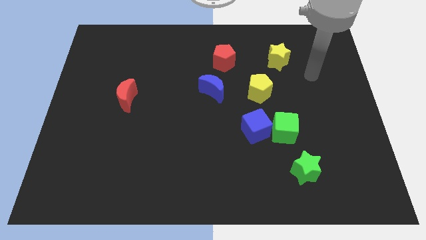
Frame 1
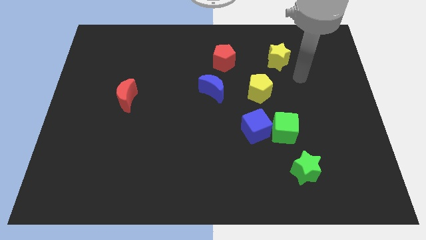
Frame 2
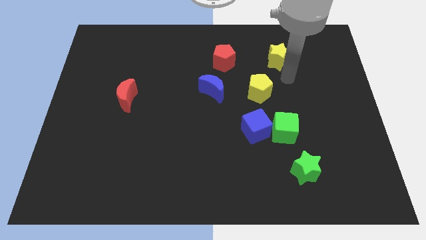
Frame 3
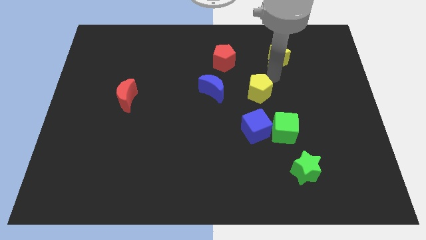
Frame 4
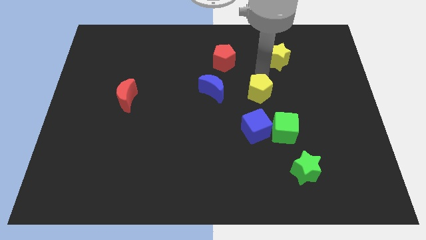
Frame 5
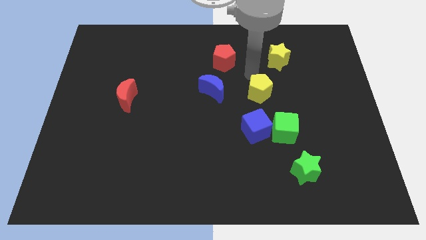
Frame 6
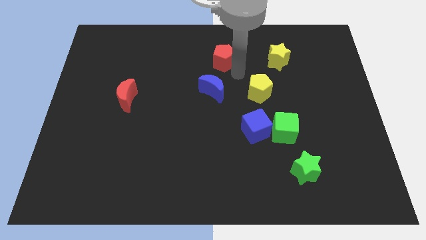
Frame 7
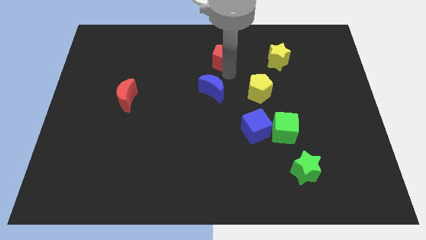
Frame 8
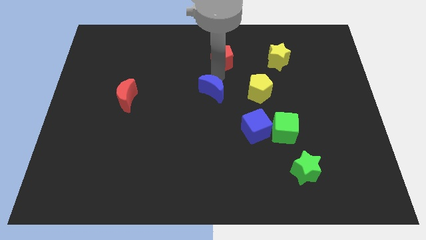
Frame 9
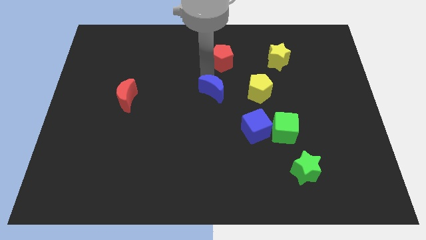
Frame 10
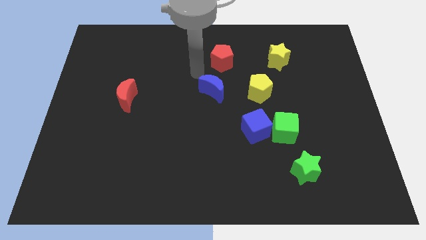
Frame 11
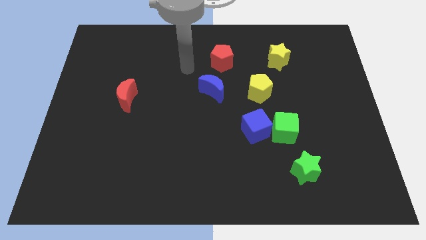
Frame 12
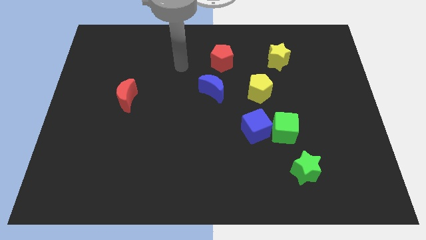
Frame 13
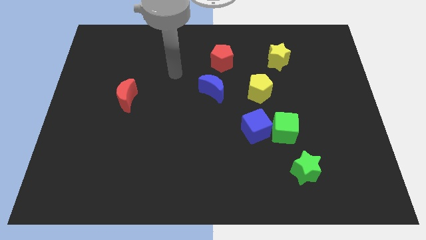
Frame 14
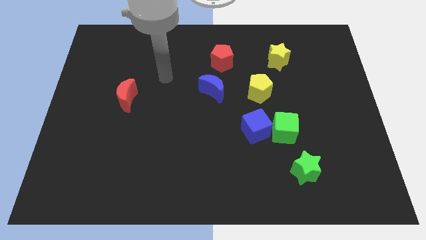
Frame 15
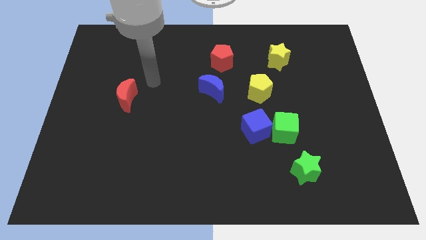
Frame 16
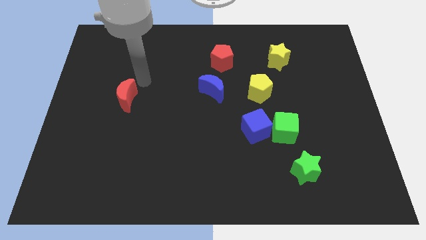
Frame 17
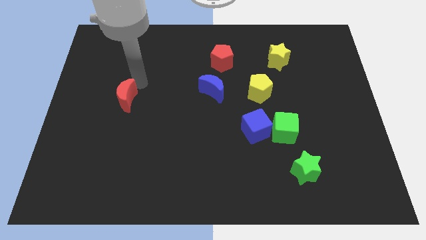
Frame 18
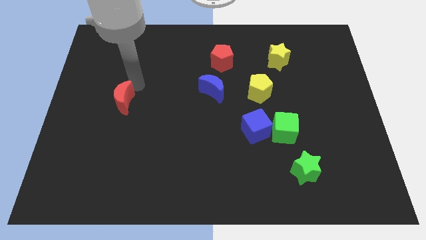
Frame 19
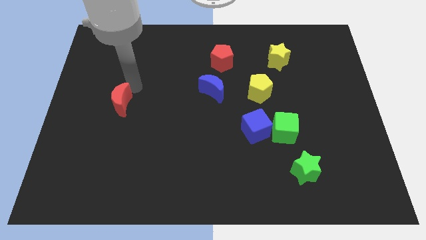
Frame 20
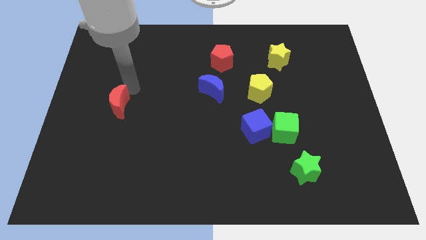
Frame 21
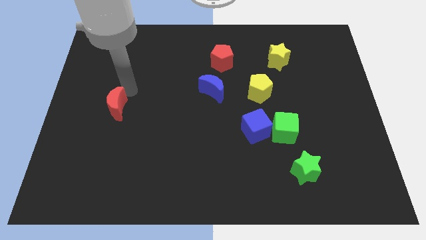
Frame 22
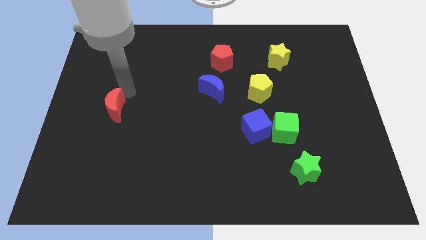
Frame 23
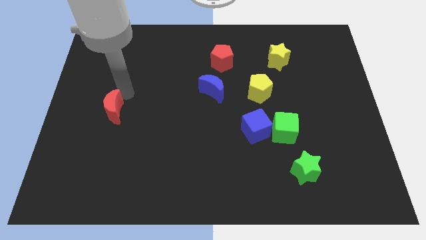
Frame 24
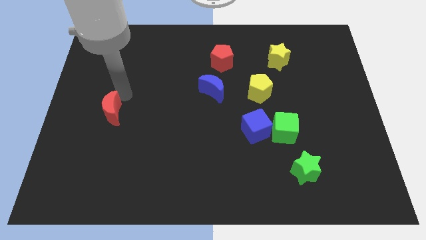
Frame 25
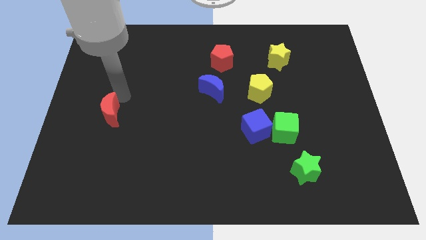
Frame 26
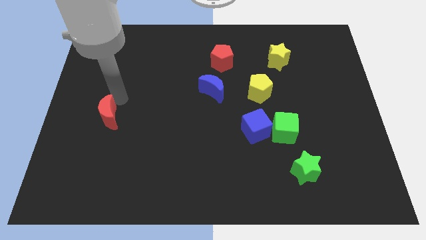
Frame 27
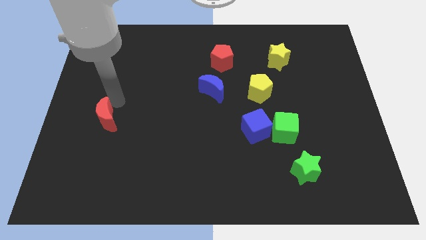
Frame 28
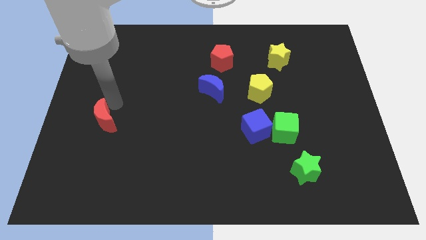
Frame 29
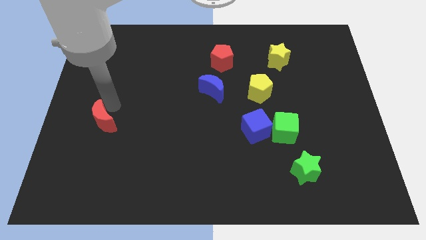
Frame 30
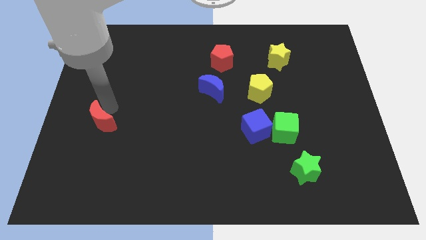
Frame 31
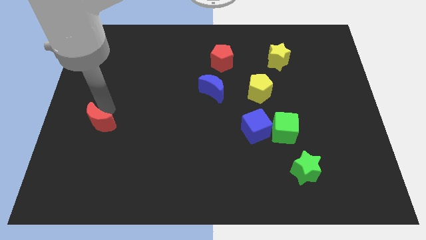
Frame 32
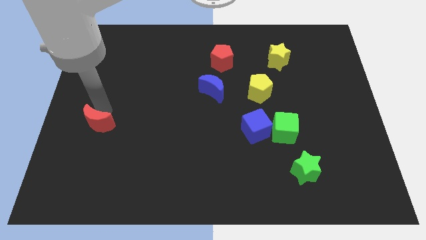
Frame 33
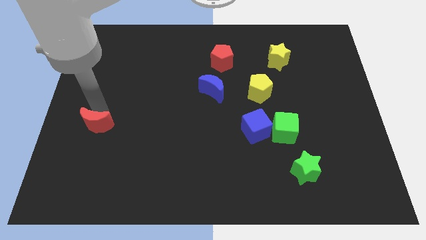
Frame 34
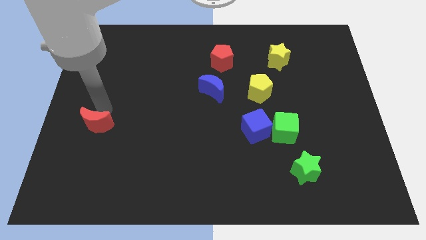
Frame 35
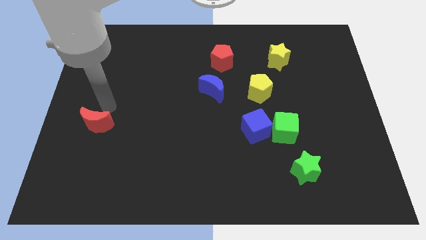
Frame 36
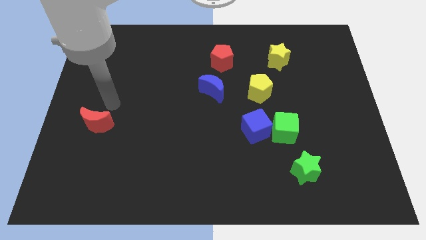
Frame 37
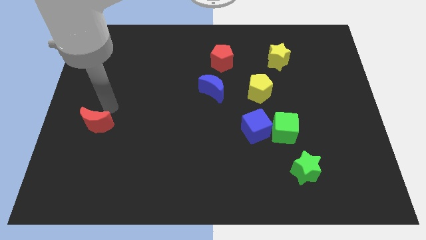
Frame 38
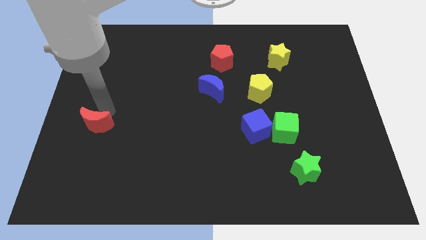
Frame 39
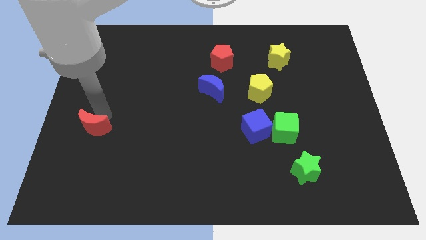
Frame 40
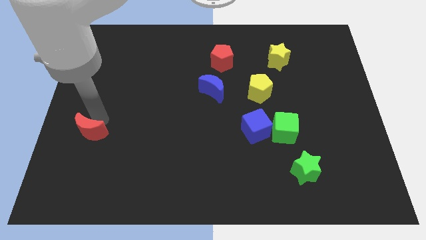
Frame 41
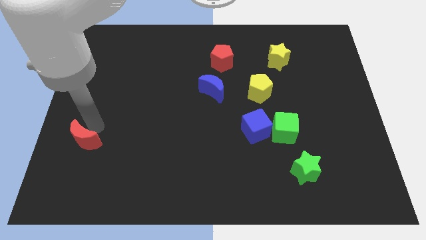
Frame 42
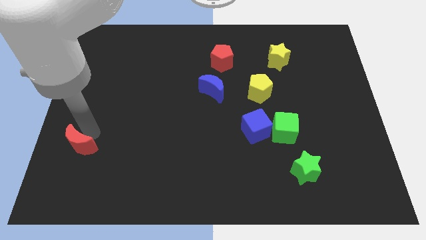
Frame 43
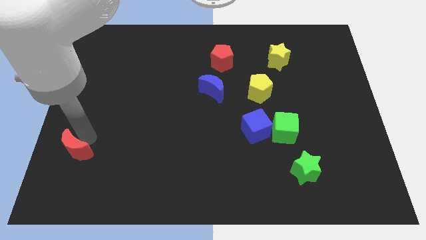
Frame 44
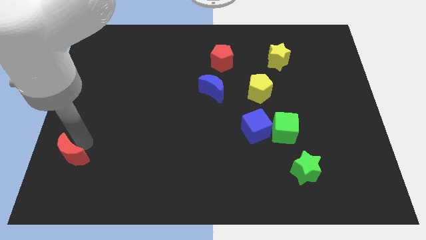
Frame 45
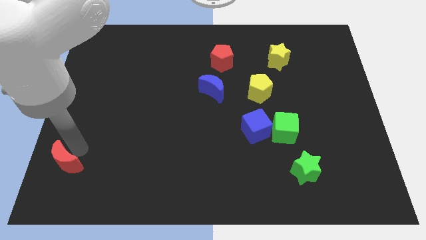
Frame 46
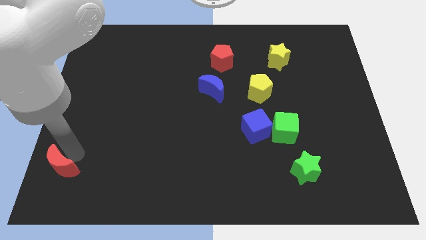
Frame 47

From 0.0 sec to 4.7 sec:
put the red moon to the lower left corner

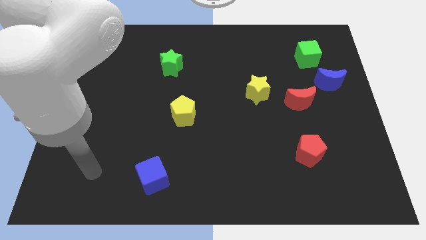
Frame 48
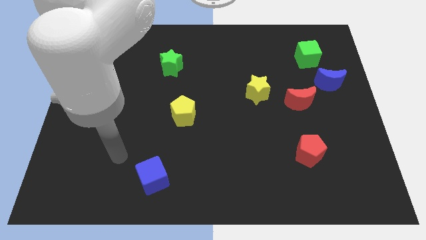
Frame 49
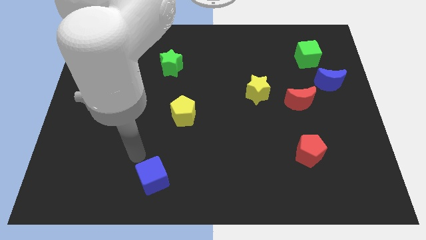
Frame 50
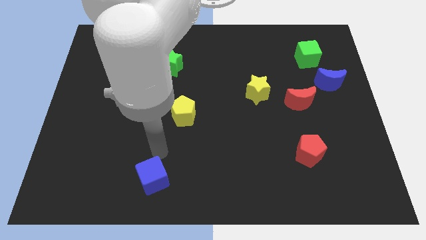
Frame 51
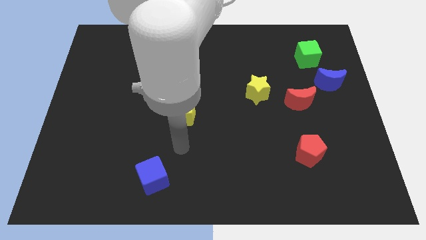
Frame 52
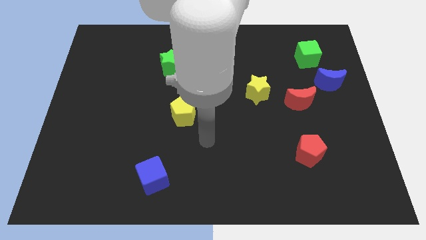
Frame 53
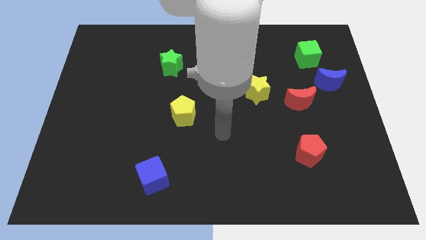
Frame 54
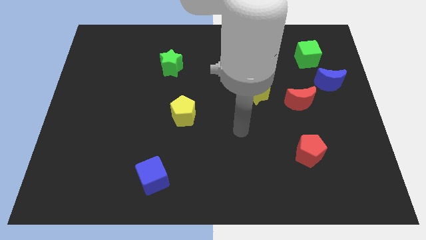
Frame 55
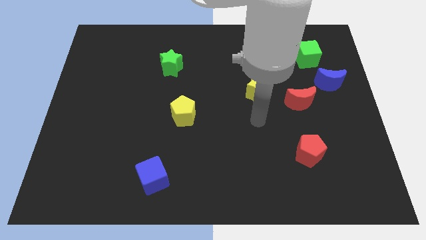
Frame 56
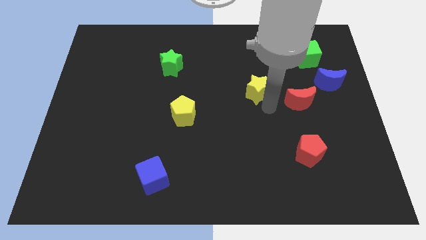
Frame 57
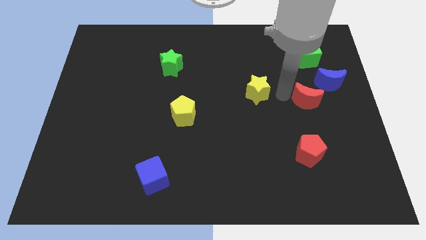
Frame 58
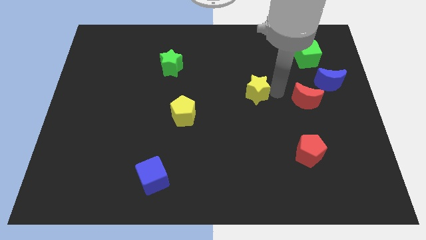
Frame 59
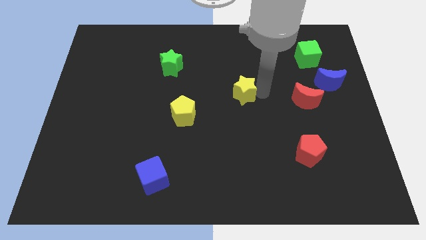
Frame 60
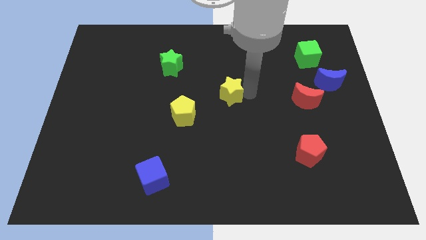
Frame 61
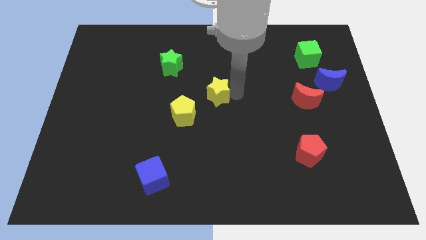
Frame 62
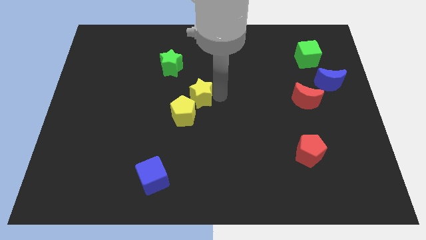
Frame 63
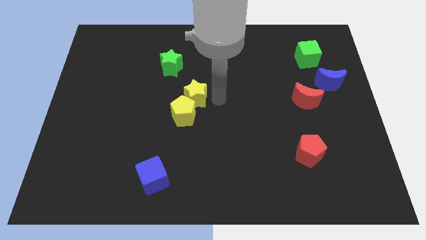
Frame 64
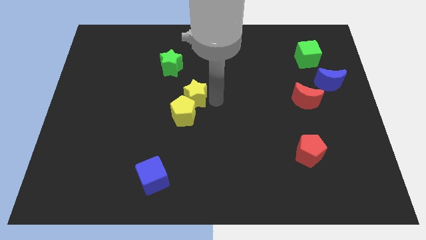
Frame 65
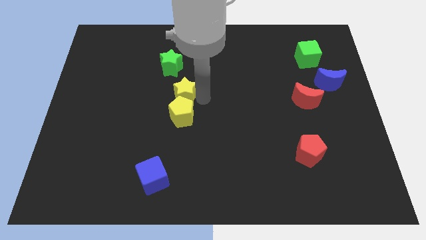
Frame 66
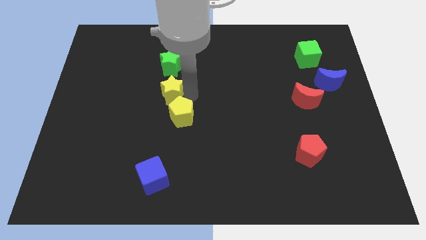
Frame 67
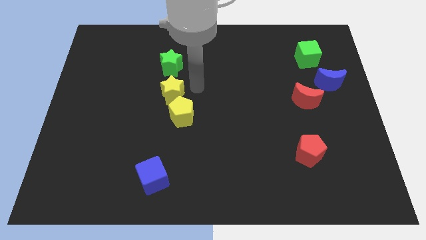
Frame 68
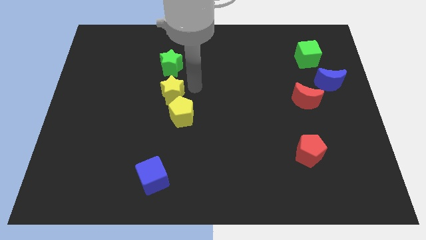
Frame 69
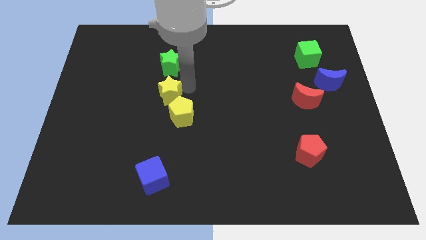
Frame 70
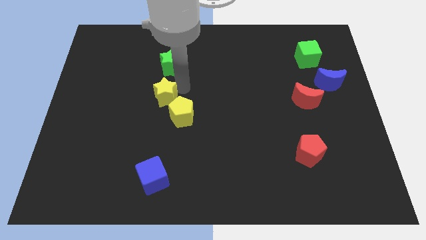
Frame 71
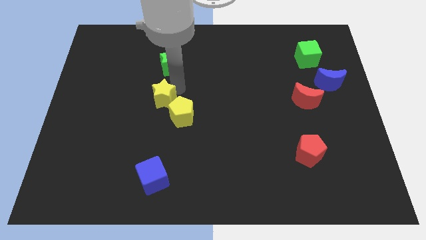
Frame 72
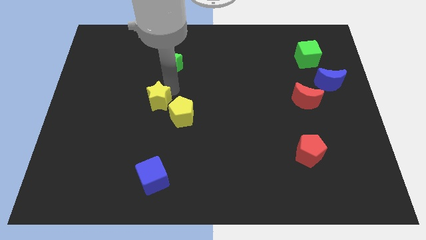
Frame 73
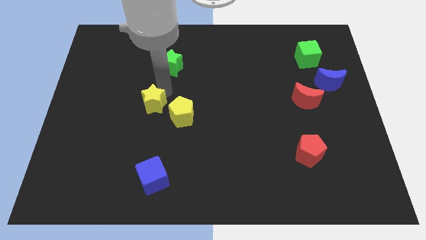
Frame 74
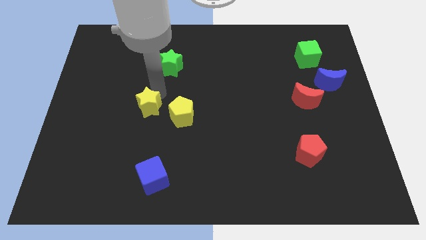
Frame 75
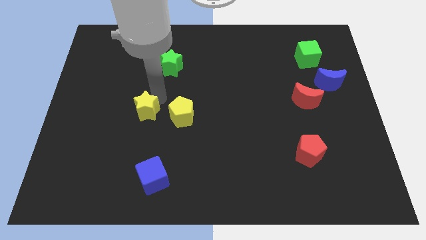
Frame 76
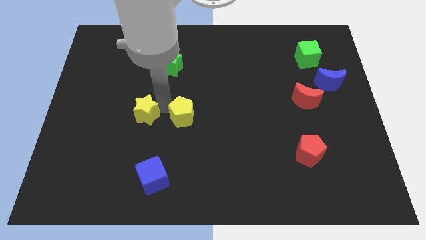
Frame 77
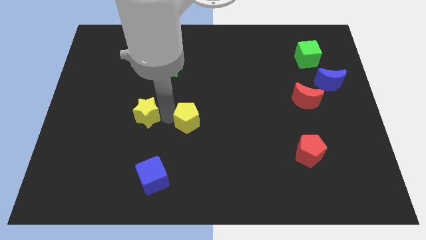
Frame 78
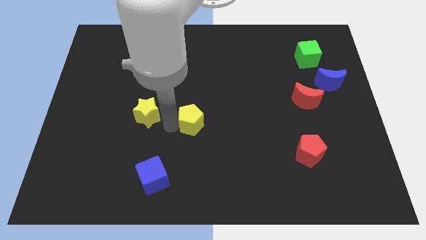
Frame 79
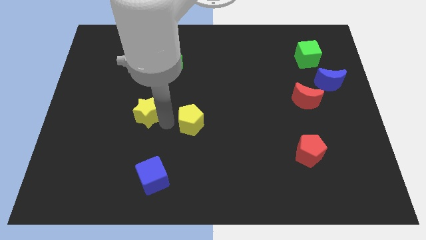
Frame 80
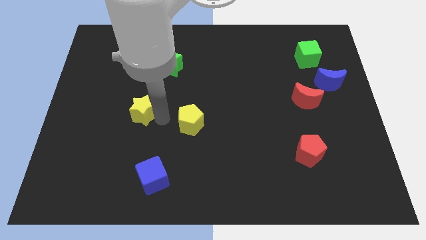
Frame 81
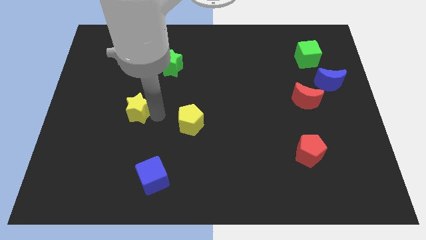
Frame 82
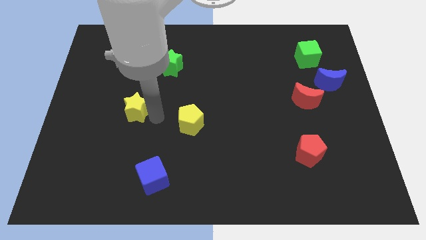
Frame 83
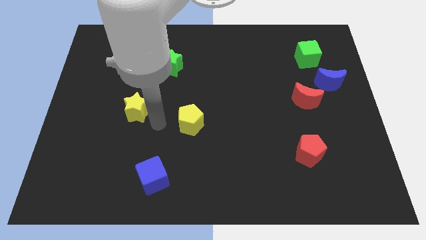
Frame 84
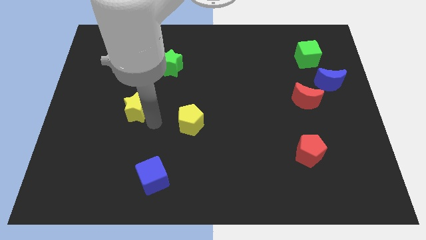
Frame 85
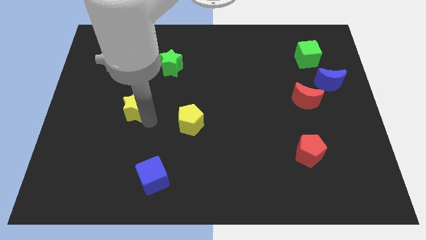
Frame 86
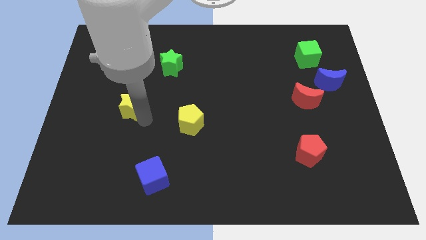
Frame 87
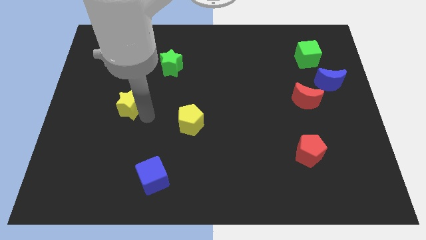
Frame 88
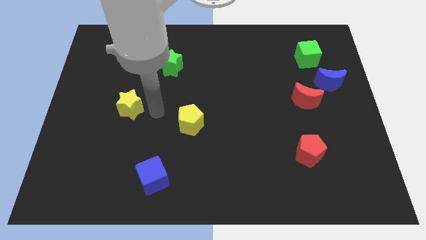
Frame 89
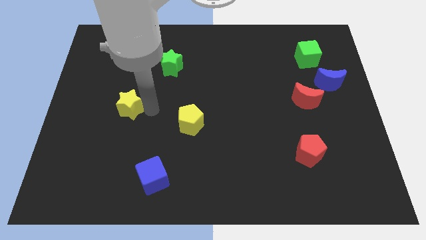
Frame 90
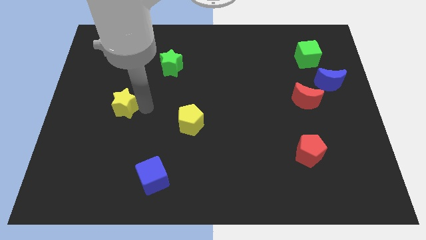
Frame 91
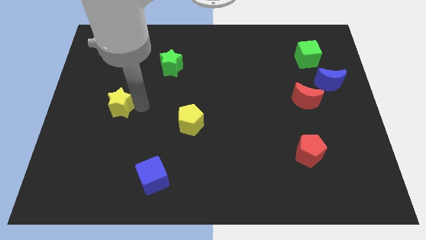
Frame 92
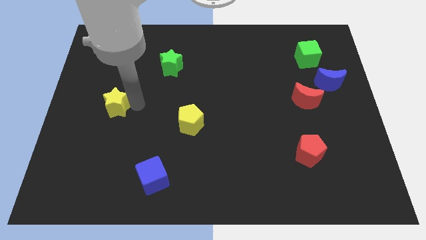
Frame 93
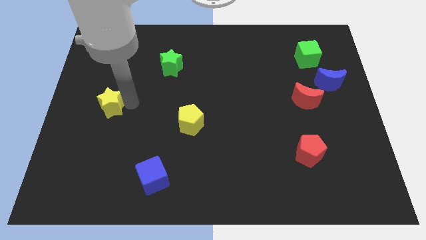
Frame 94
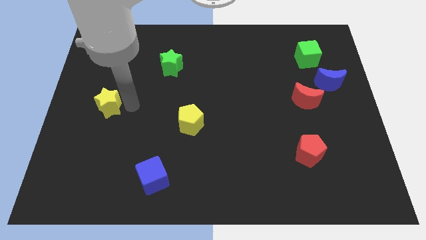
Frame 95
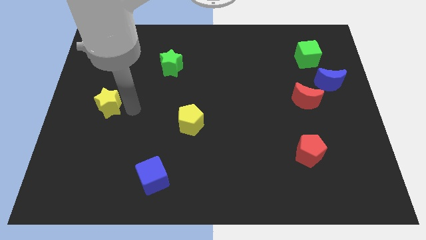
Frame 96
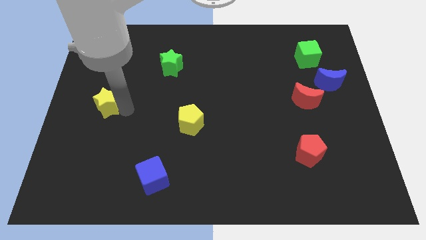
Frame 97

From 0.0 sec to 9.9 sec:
push the yellow star to the left side of the board
